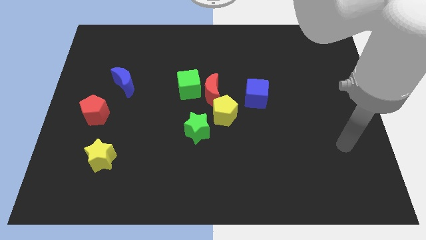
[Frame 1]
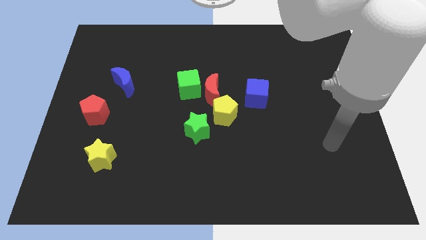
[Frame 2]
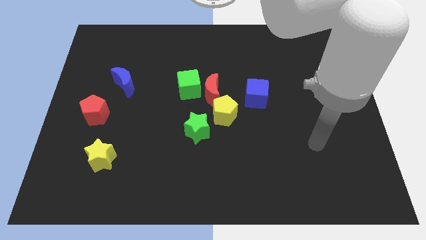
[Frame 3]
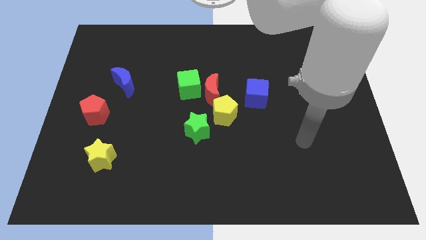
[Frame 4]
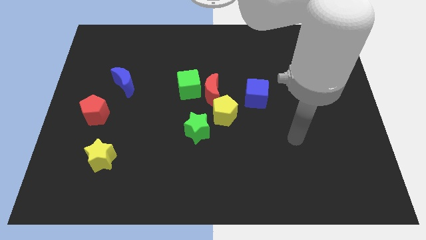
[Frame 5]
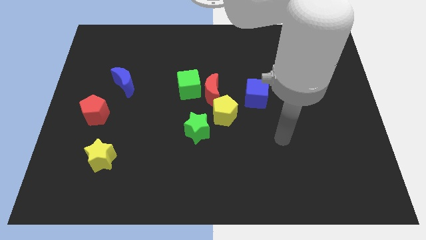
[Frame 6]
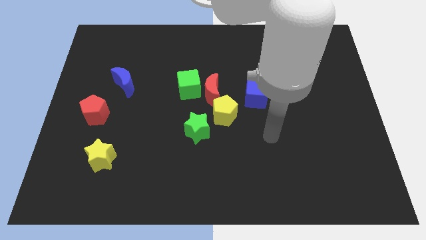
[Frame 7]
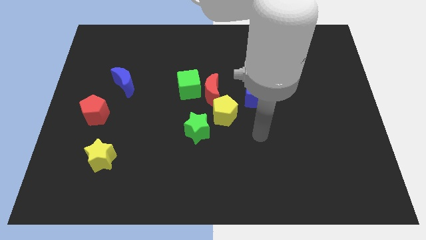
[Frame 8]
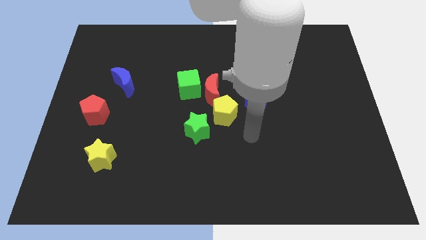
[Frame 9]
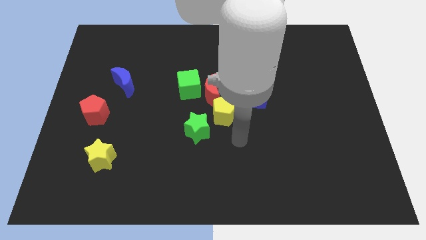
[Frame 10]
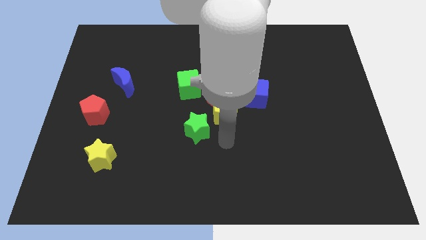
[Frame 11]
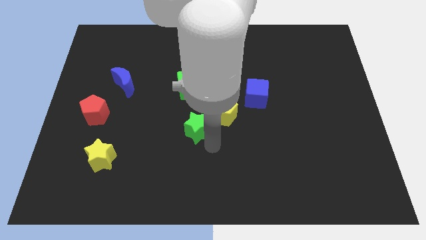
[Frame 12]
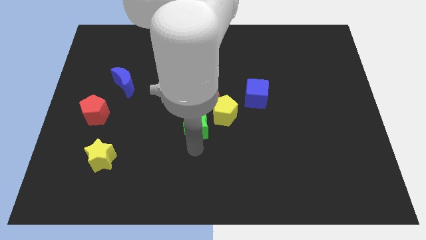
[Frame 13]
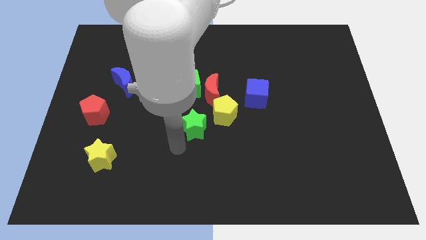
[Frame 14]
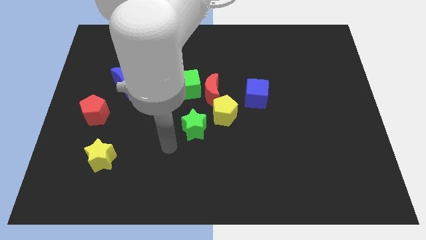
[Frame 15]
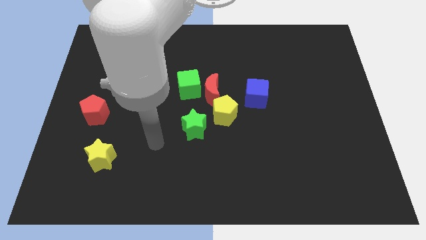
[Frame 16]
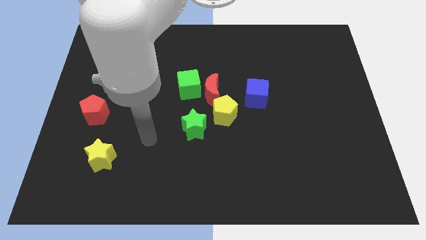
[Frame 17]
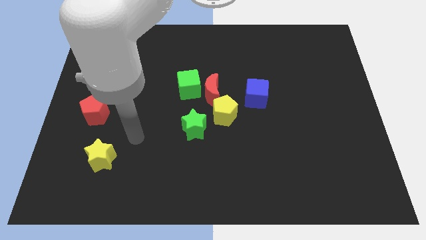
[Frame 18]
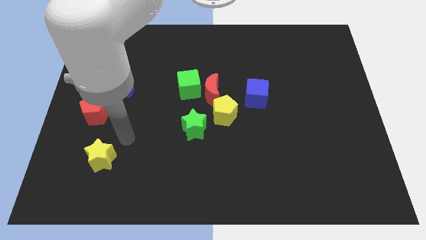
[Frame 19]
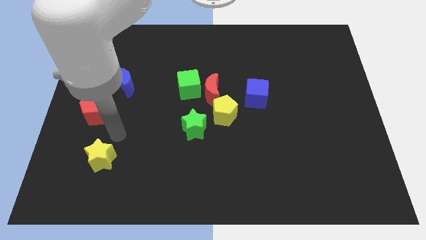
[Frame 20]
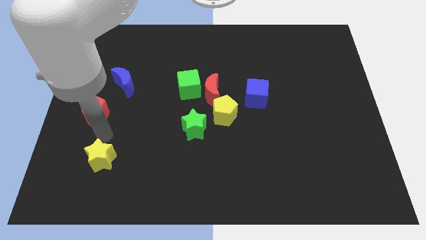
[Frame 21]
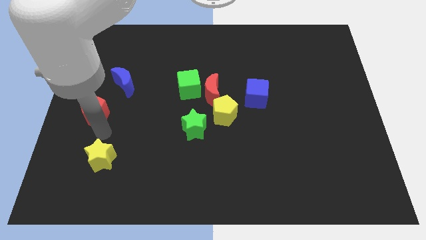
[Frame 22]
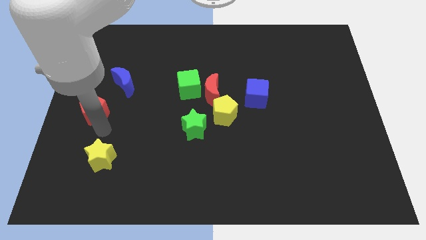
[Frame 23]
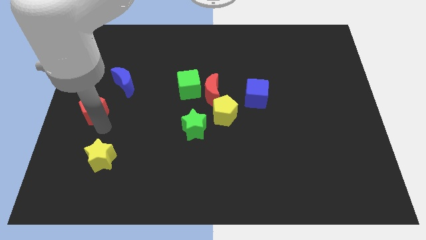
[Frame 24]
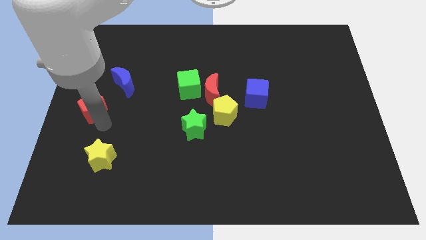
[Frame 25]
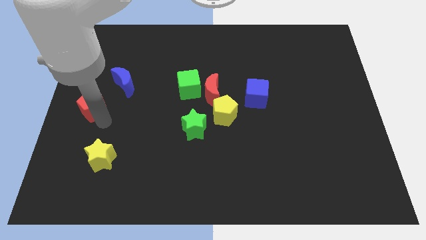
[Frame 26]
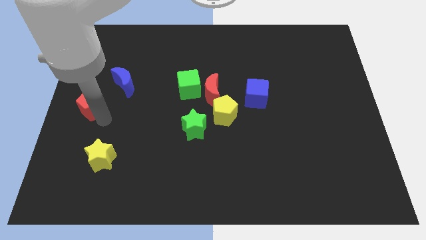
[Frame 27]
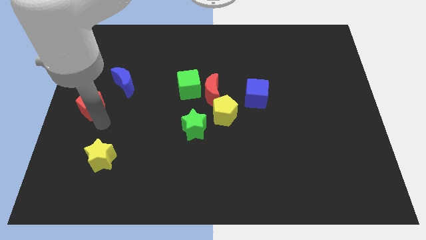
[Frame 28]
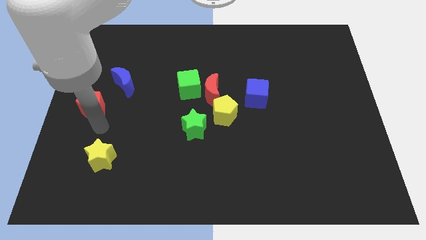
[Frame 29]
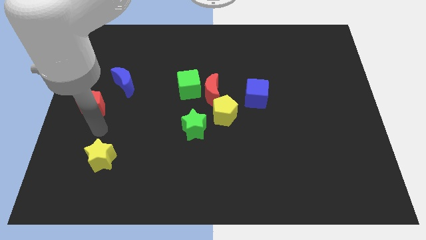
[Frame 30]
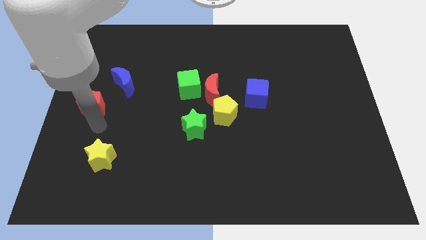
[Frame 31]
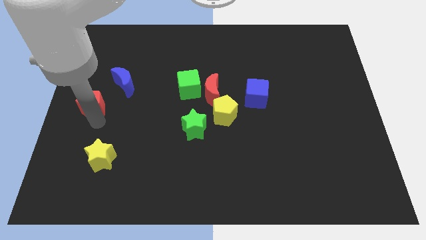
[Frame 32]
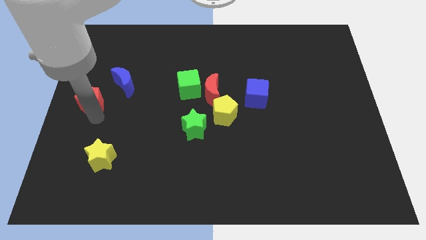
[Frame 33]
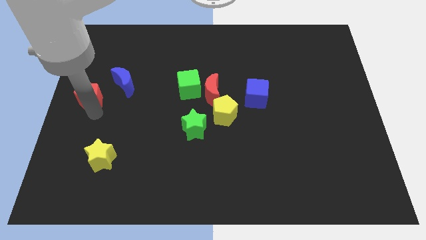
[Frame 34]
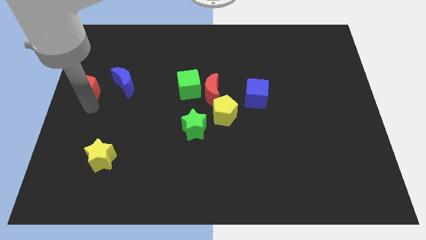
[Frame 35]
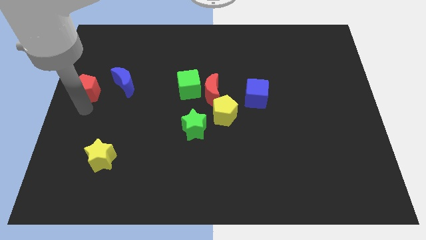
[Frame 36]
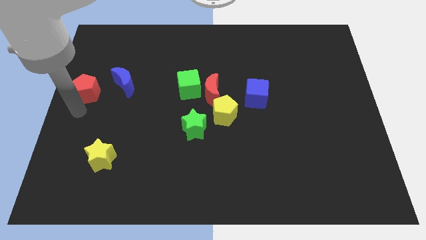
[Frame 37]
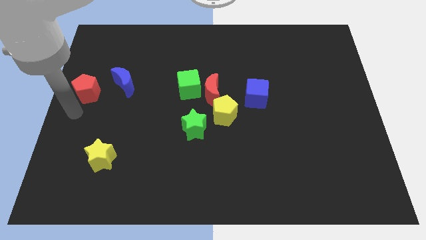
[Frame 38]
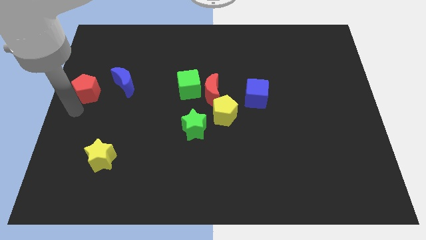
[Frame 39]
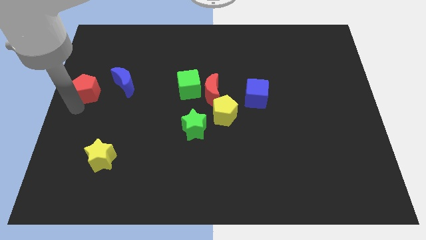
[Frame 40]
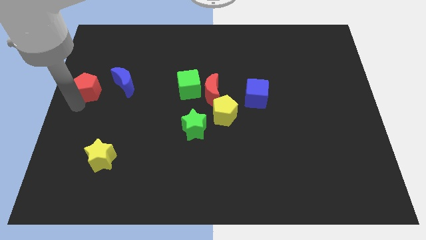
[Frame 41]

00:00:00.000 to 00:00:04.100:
slightly push the red pentagon up

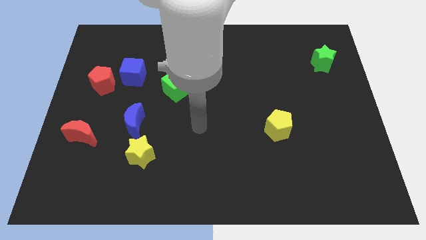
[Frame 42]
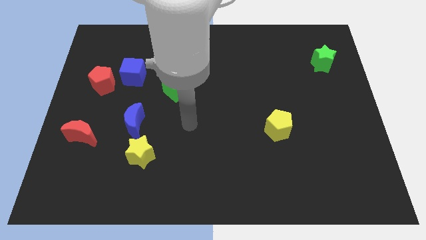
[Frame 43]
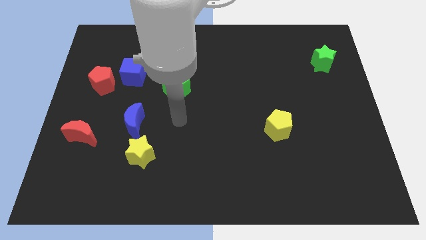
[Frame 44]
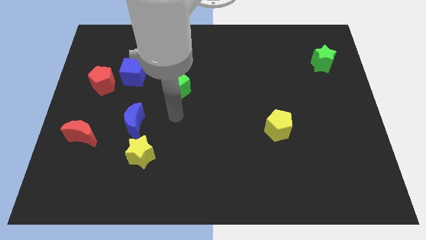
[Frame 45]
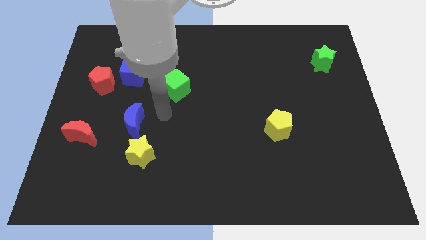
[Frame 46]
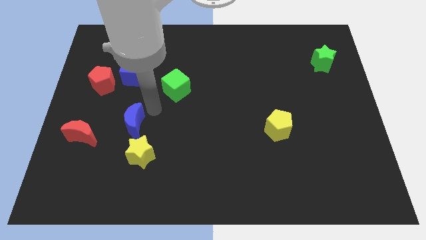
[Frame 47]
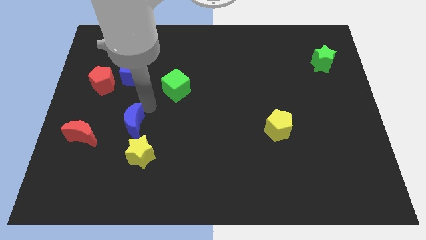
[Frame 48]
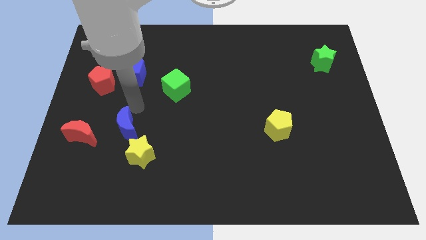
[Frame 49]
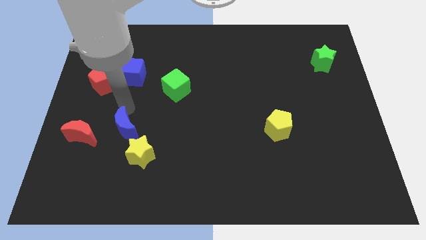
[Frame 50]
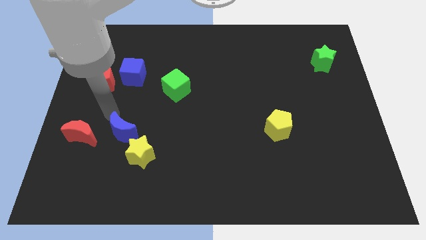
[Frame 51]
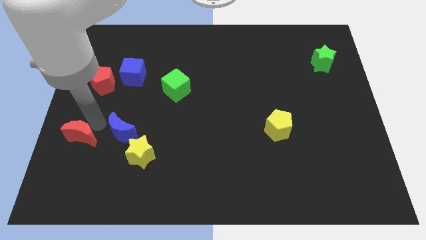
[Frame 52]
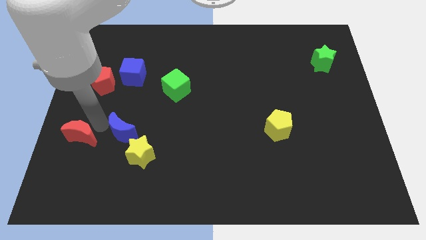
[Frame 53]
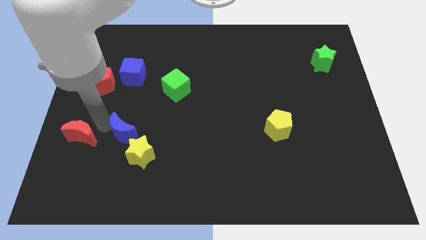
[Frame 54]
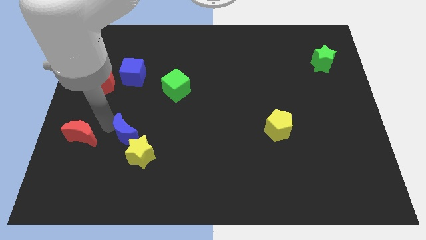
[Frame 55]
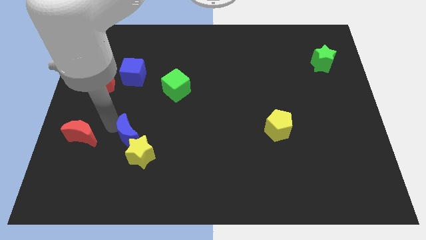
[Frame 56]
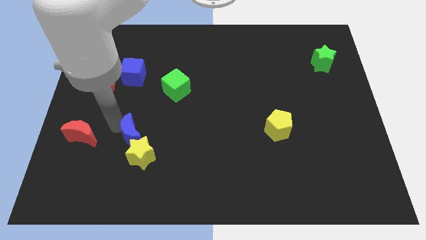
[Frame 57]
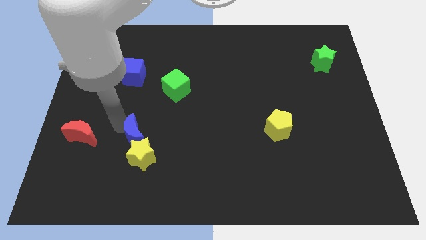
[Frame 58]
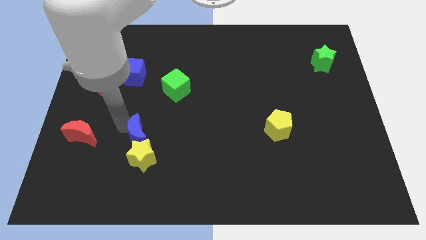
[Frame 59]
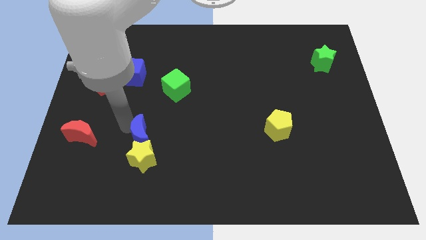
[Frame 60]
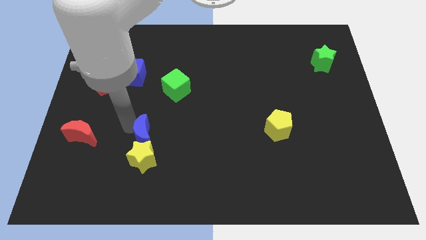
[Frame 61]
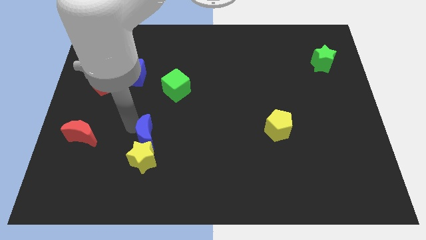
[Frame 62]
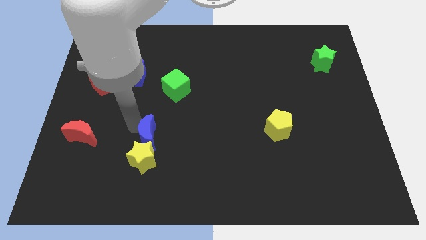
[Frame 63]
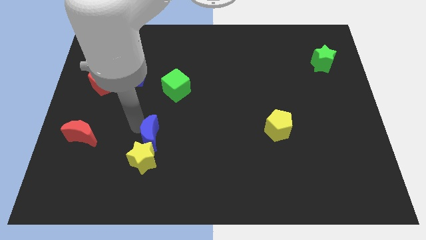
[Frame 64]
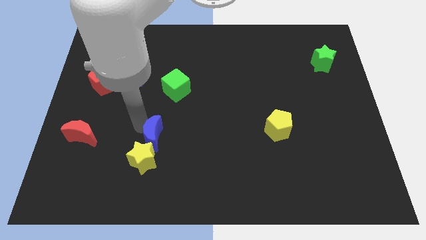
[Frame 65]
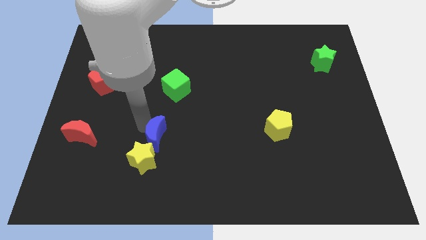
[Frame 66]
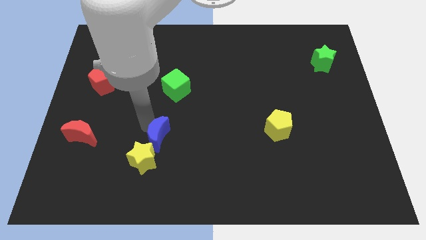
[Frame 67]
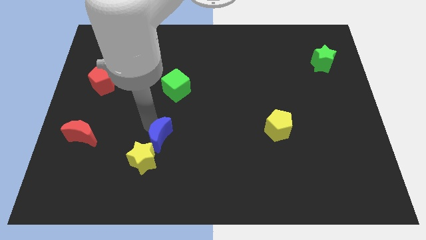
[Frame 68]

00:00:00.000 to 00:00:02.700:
slightly push the blue moon downwards and right

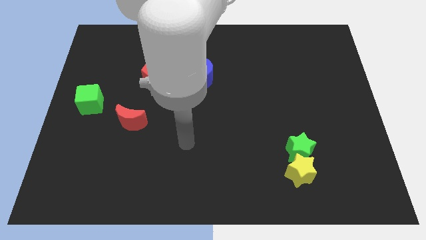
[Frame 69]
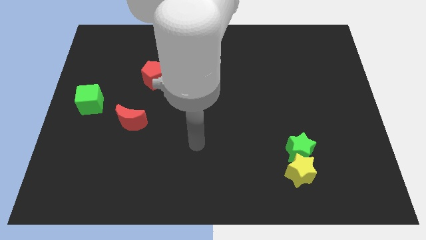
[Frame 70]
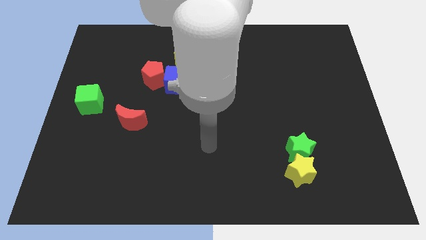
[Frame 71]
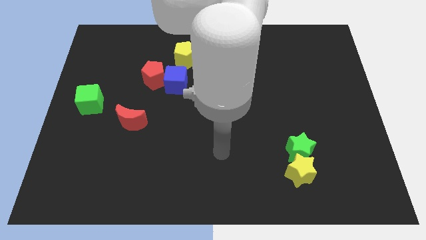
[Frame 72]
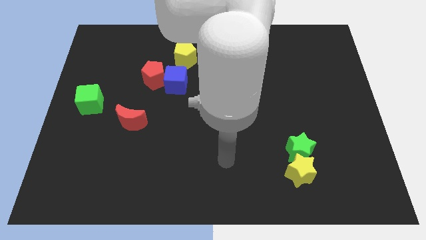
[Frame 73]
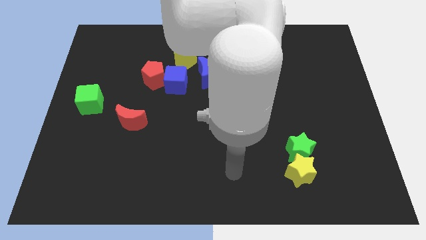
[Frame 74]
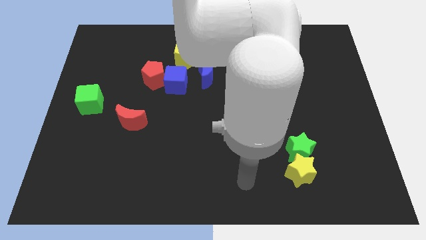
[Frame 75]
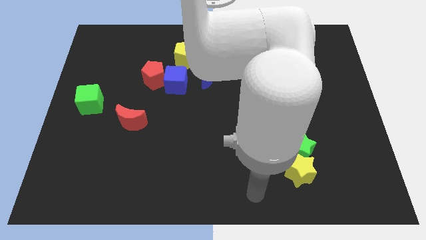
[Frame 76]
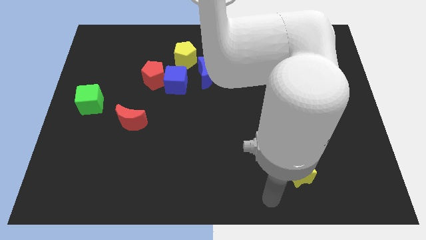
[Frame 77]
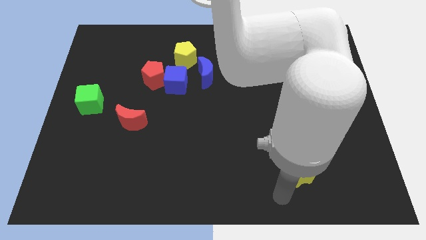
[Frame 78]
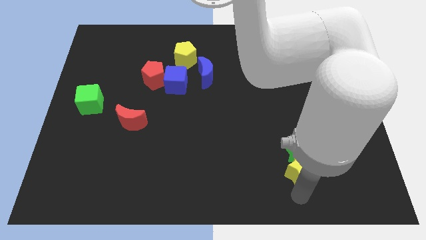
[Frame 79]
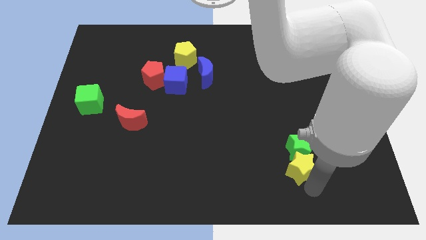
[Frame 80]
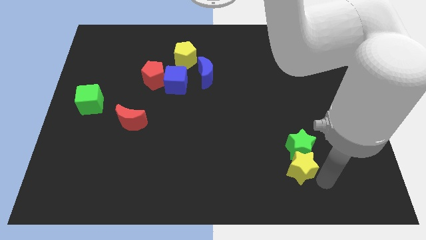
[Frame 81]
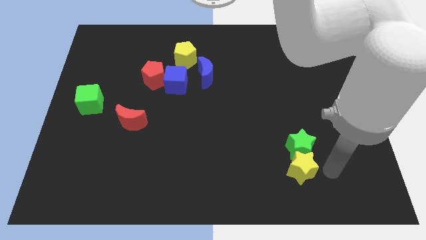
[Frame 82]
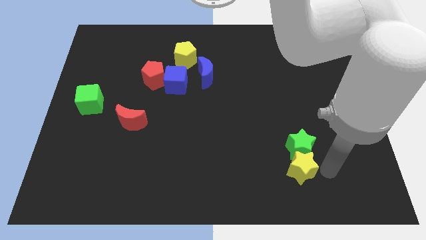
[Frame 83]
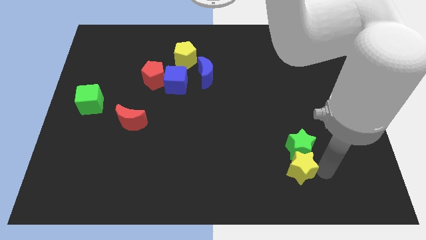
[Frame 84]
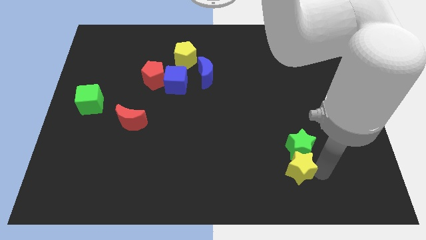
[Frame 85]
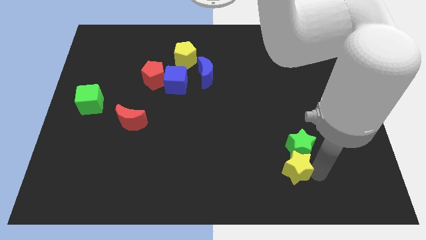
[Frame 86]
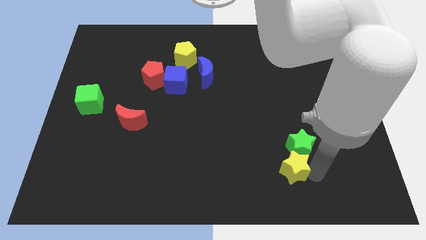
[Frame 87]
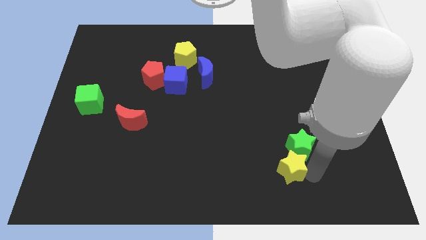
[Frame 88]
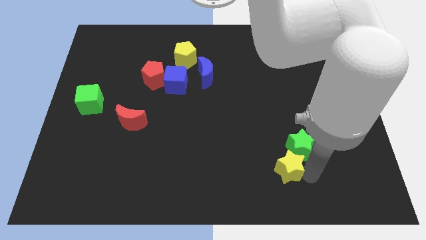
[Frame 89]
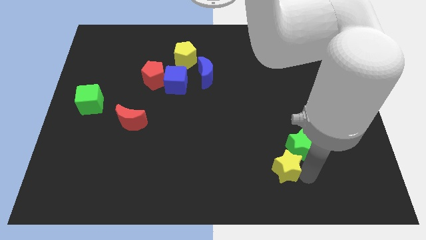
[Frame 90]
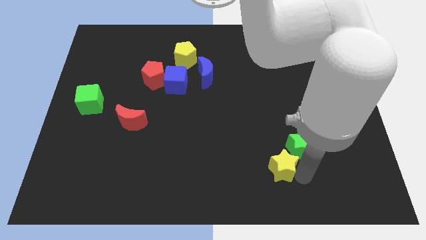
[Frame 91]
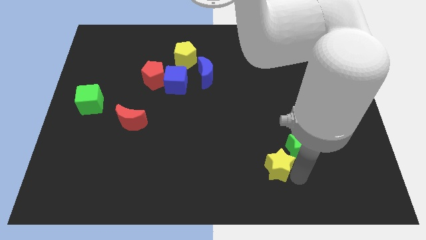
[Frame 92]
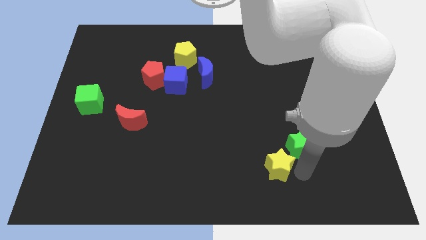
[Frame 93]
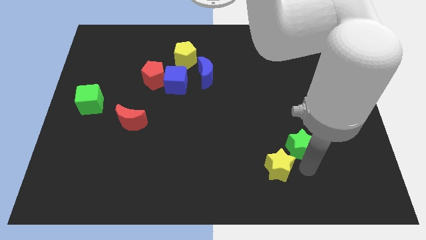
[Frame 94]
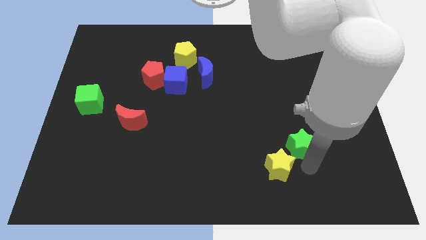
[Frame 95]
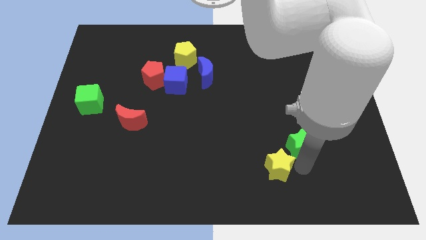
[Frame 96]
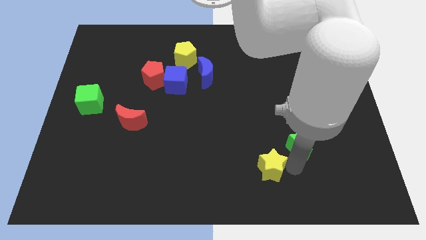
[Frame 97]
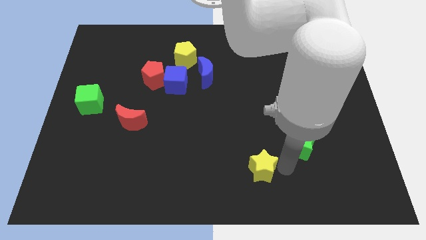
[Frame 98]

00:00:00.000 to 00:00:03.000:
move the yellow star to the left a little bit
